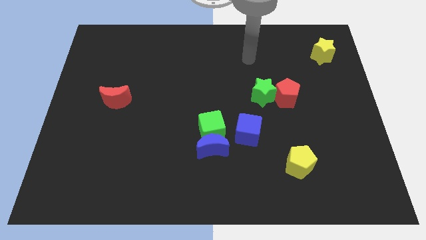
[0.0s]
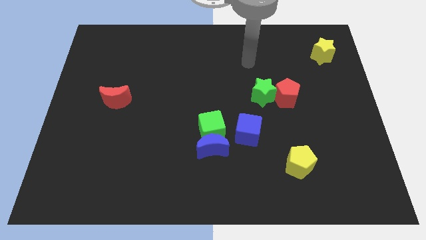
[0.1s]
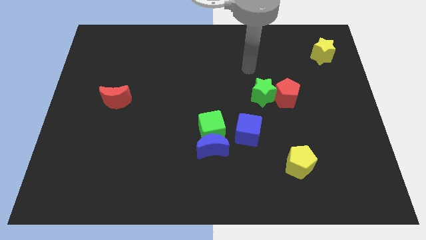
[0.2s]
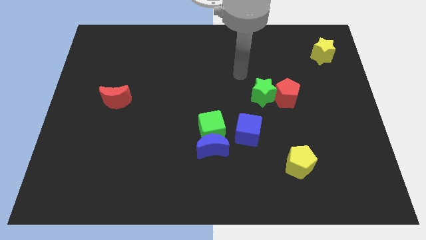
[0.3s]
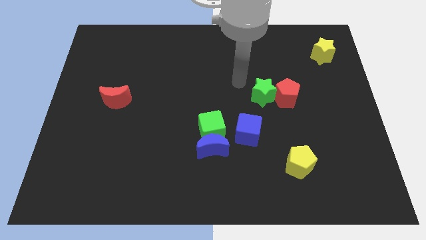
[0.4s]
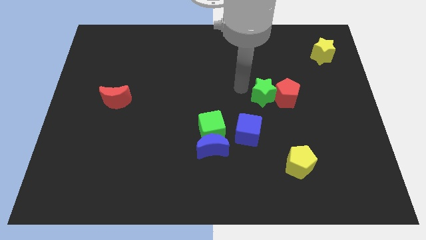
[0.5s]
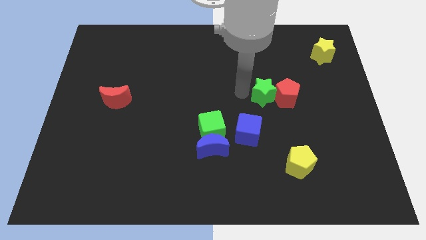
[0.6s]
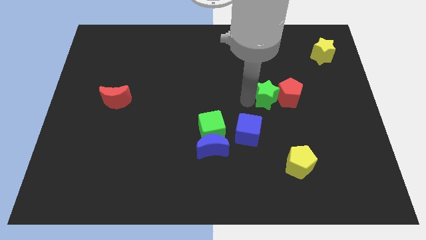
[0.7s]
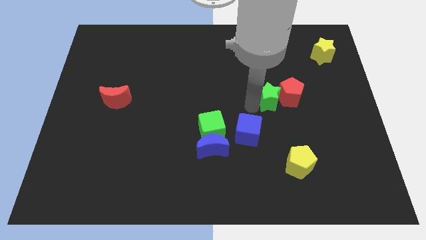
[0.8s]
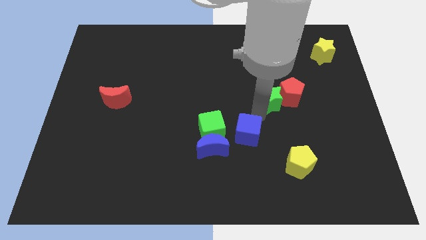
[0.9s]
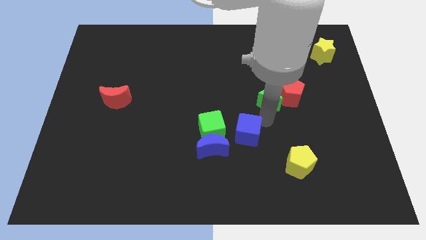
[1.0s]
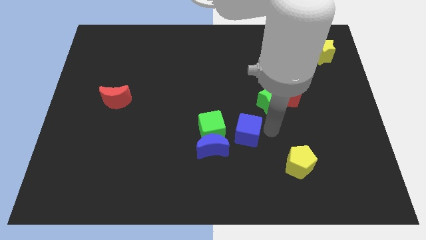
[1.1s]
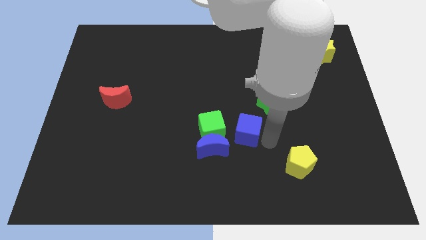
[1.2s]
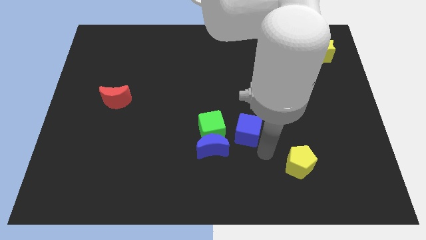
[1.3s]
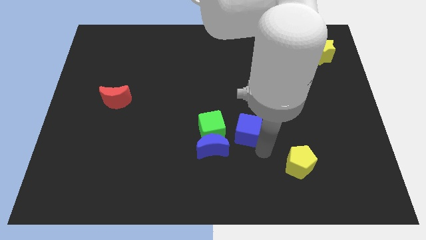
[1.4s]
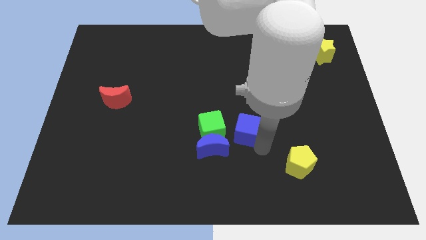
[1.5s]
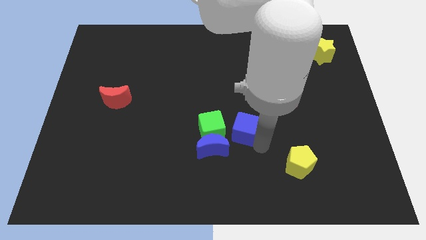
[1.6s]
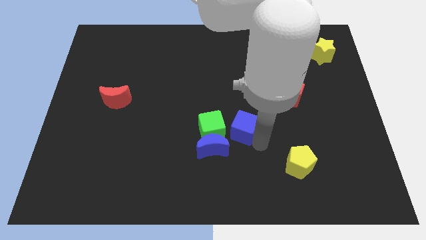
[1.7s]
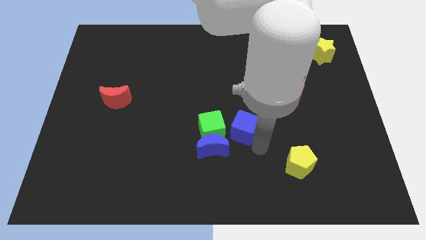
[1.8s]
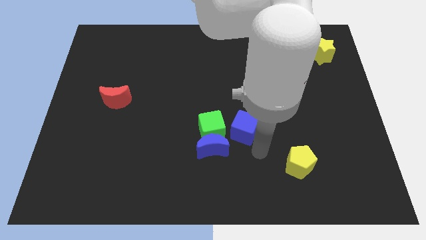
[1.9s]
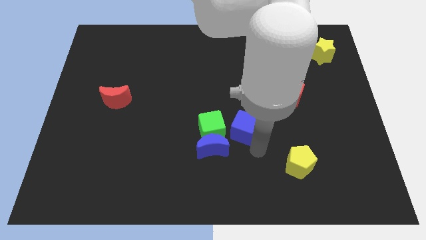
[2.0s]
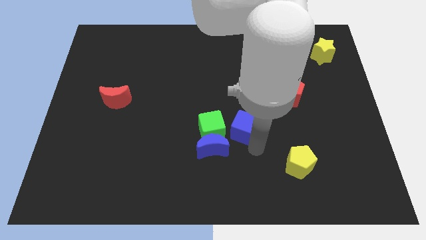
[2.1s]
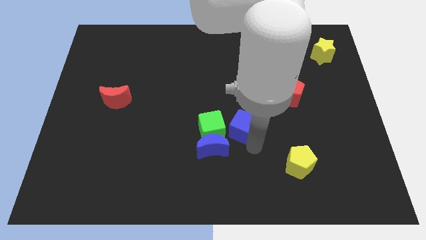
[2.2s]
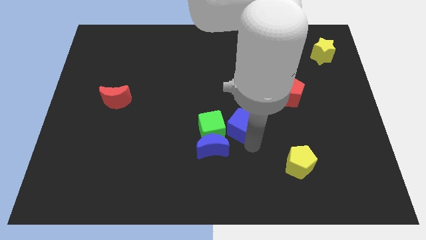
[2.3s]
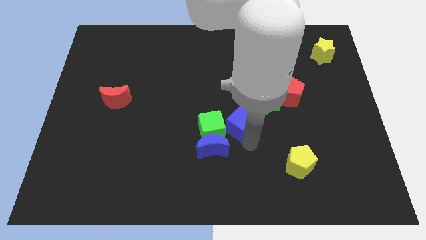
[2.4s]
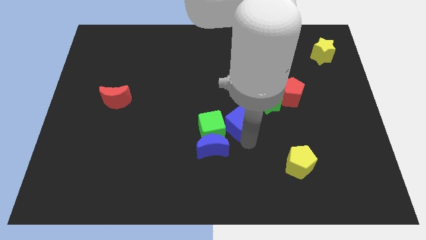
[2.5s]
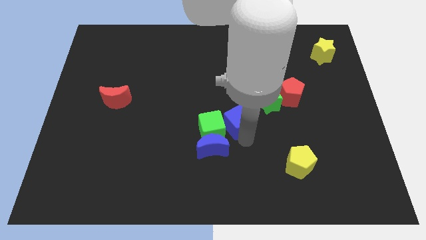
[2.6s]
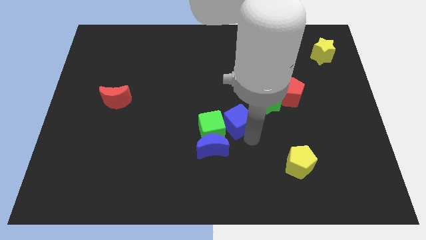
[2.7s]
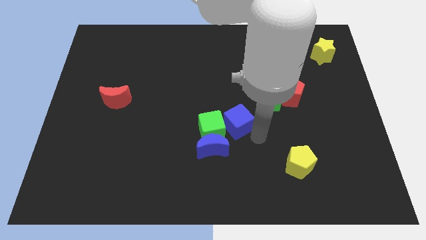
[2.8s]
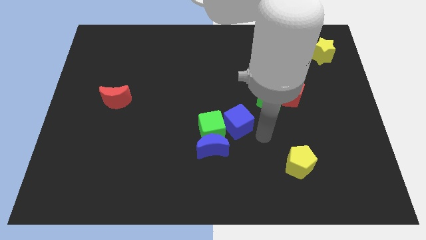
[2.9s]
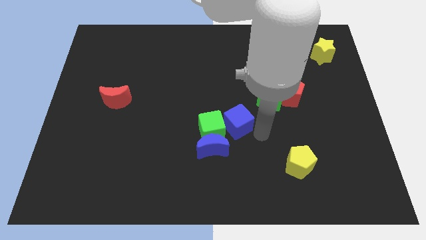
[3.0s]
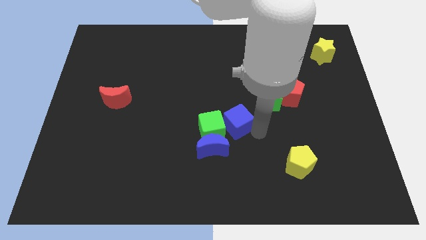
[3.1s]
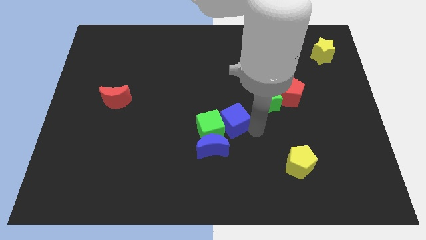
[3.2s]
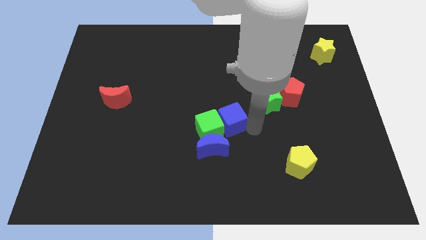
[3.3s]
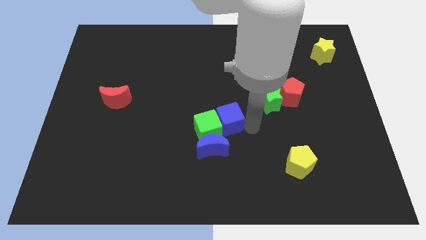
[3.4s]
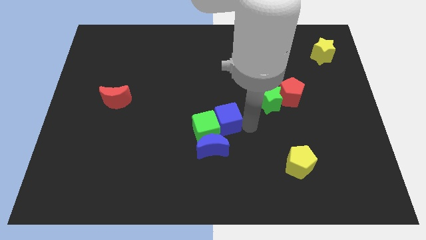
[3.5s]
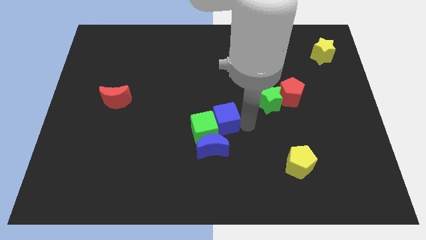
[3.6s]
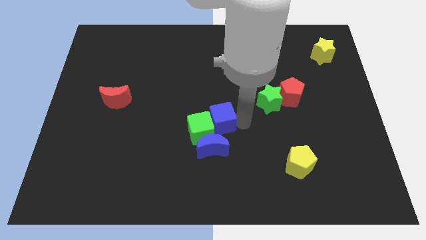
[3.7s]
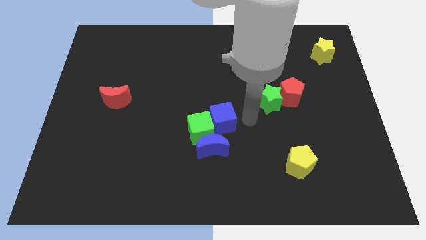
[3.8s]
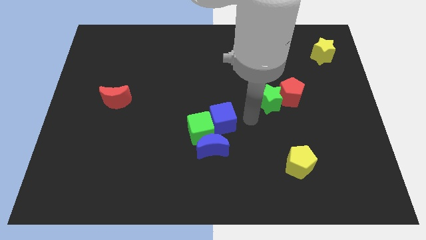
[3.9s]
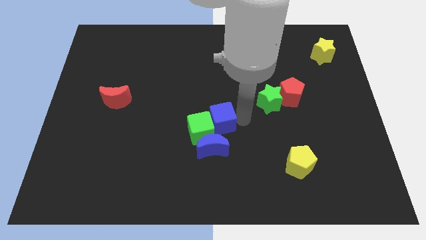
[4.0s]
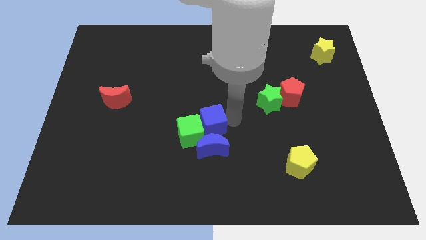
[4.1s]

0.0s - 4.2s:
slightly push the blue cube left

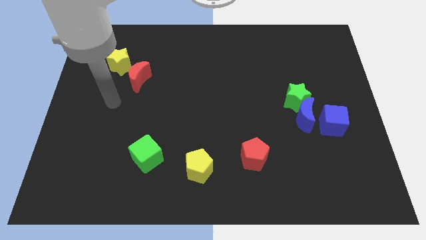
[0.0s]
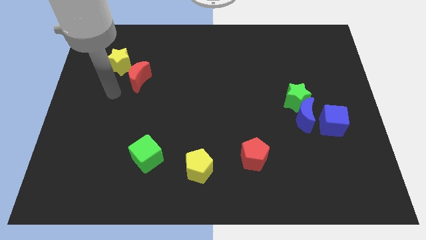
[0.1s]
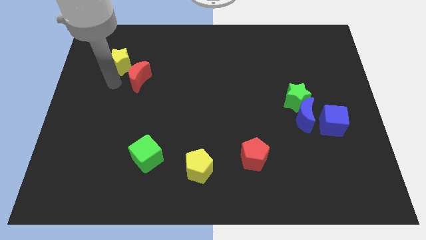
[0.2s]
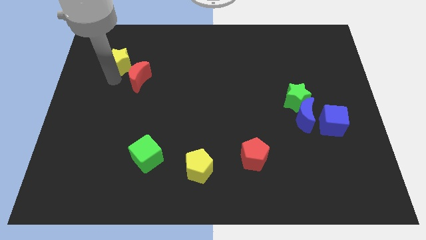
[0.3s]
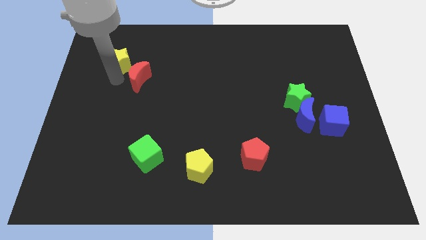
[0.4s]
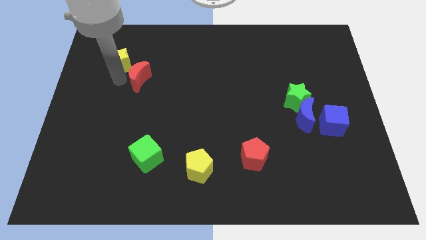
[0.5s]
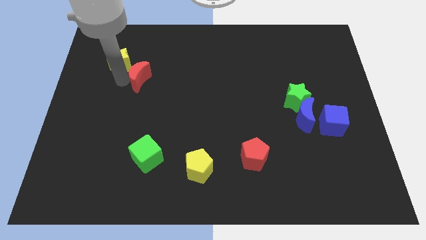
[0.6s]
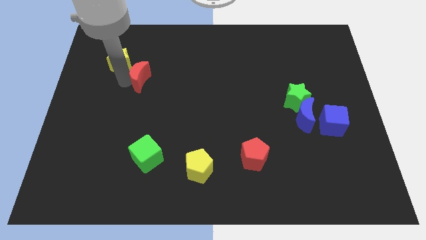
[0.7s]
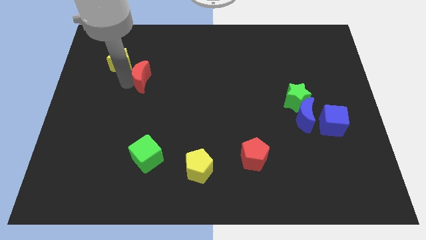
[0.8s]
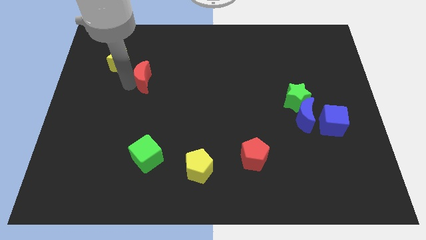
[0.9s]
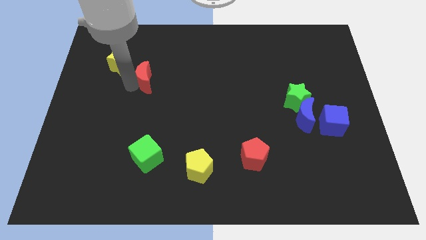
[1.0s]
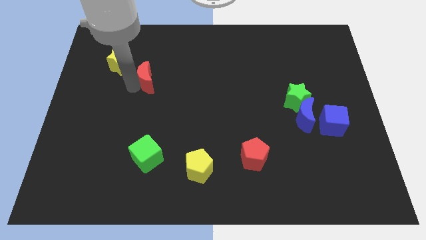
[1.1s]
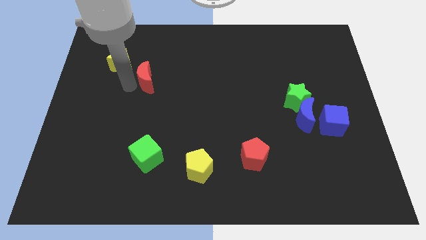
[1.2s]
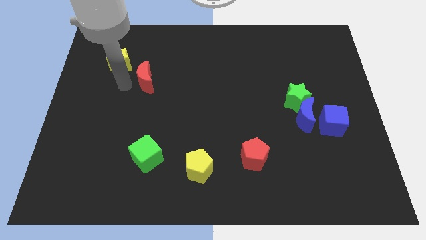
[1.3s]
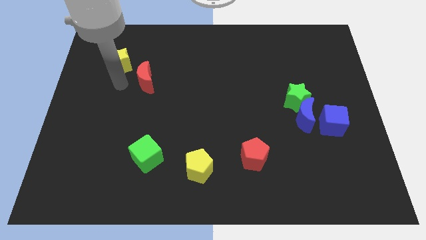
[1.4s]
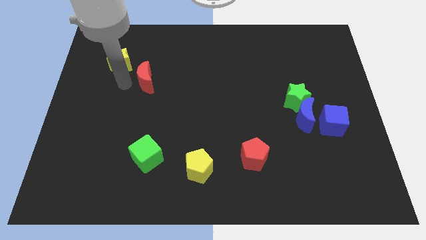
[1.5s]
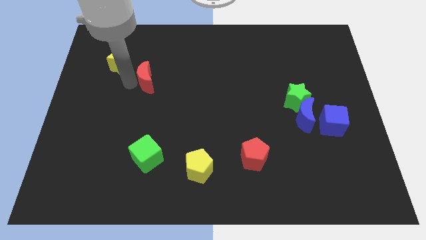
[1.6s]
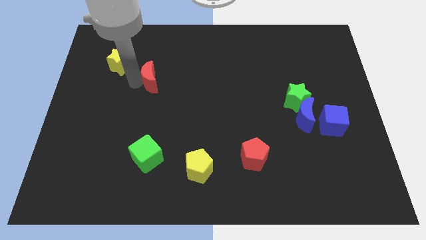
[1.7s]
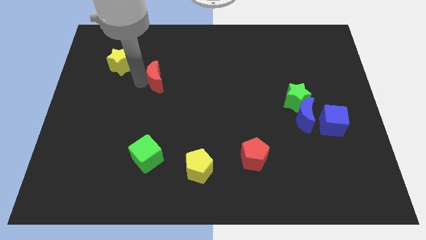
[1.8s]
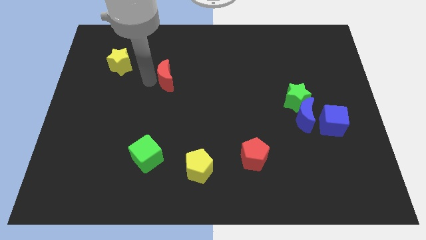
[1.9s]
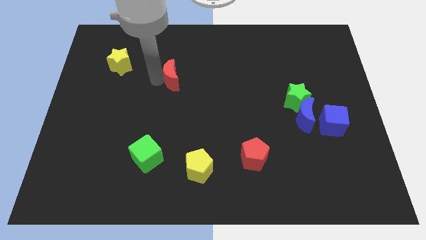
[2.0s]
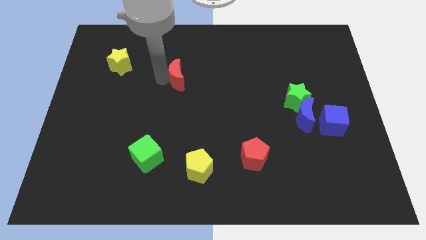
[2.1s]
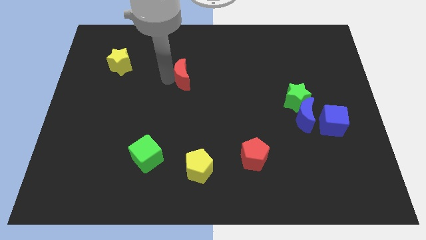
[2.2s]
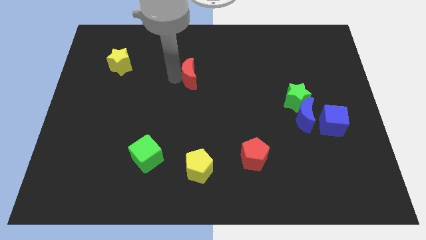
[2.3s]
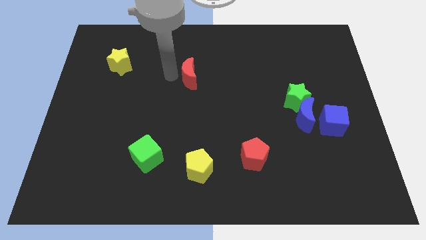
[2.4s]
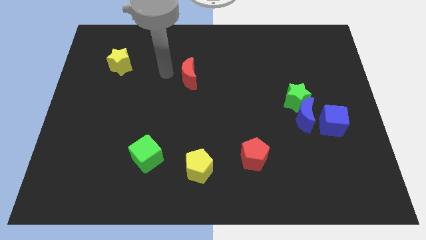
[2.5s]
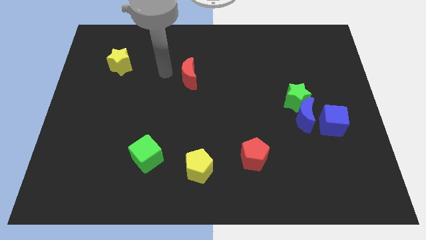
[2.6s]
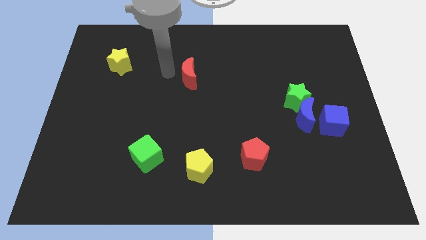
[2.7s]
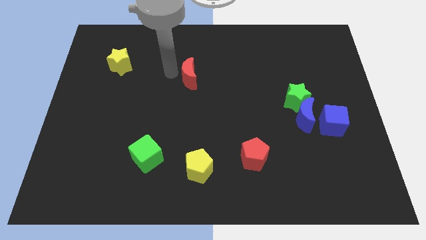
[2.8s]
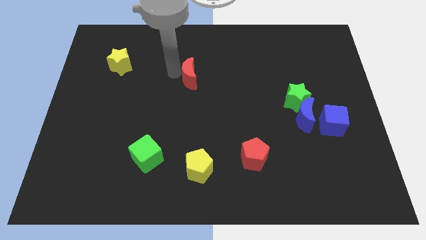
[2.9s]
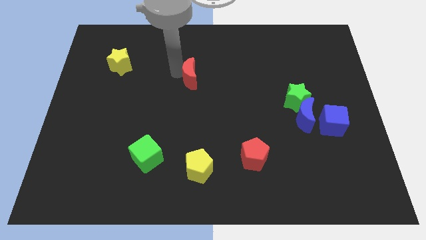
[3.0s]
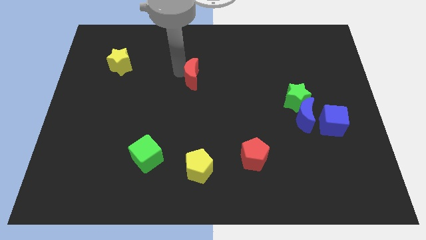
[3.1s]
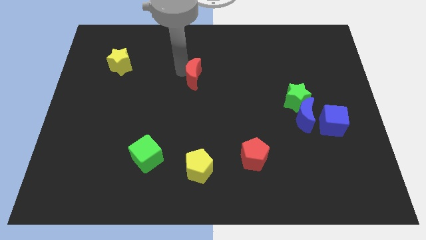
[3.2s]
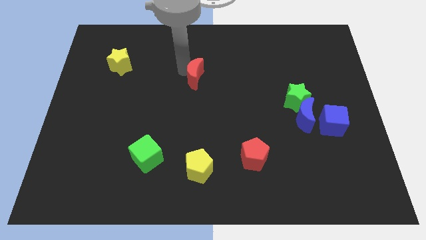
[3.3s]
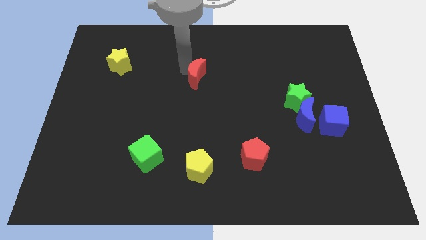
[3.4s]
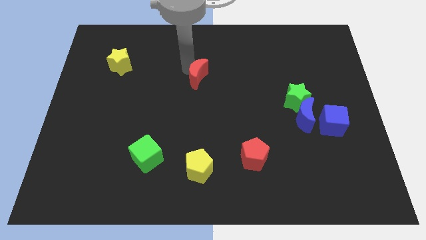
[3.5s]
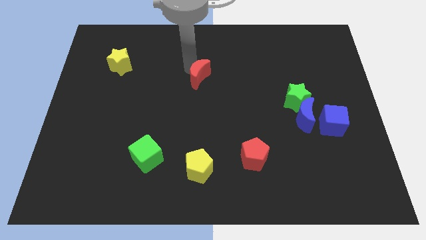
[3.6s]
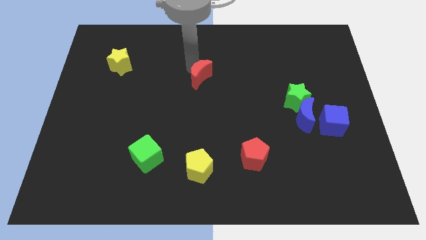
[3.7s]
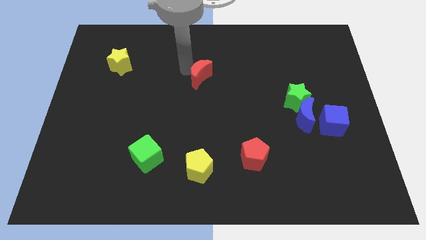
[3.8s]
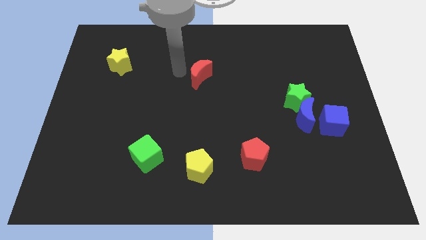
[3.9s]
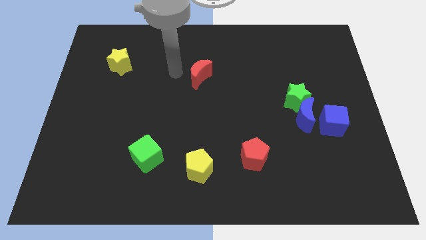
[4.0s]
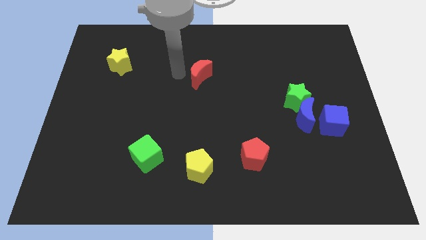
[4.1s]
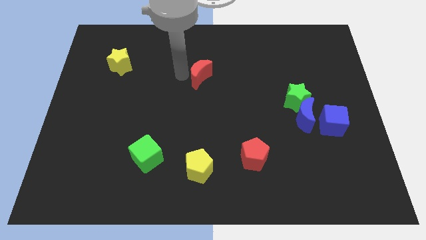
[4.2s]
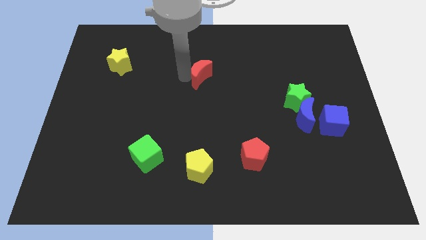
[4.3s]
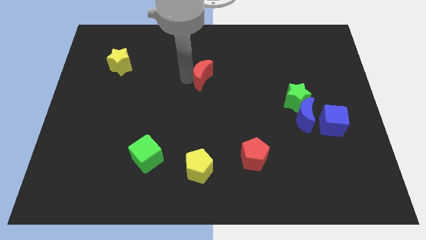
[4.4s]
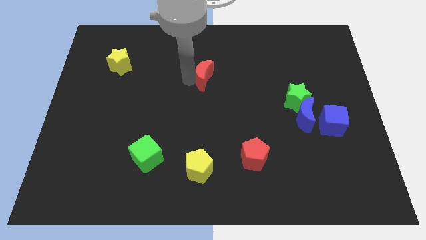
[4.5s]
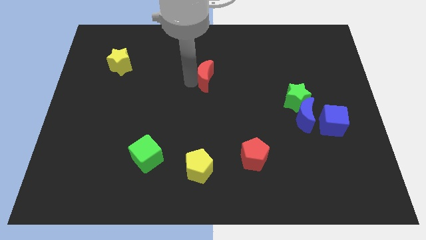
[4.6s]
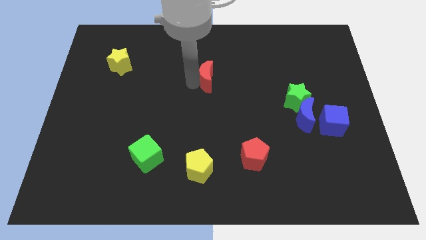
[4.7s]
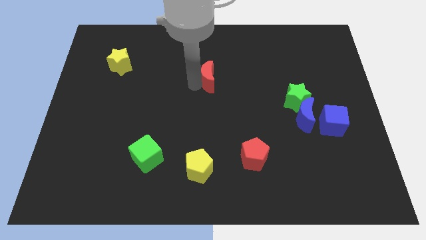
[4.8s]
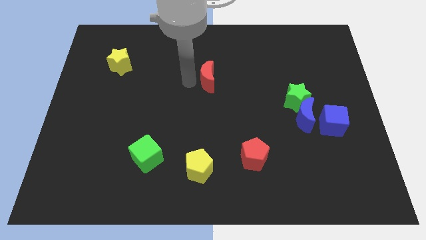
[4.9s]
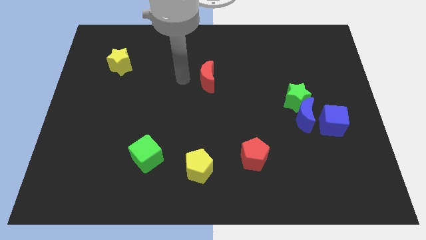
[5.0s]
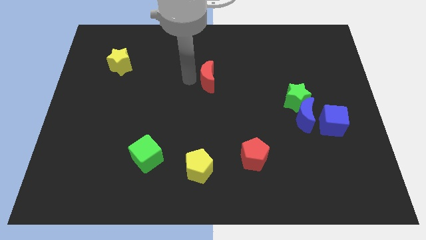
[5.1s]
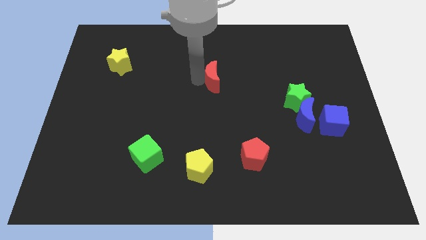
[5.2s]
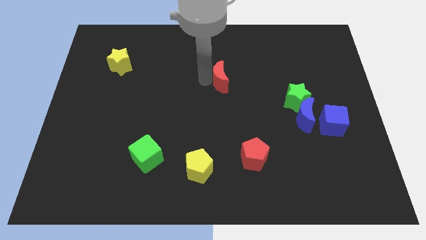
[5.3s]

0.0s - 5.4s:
move the red moon to the right
